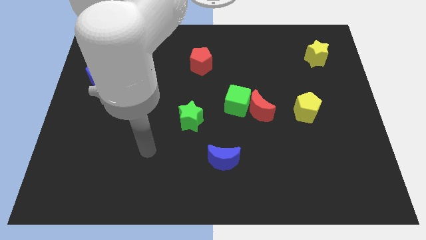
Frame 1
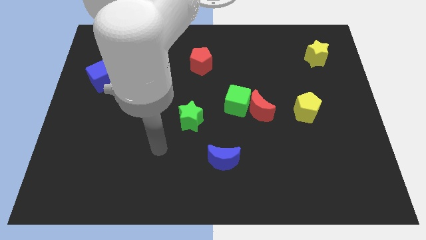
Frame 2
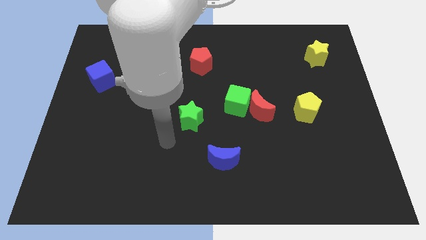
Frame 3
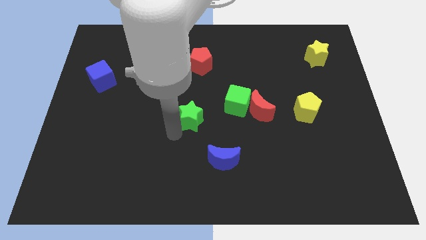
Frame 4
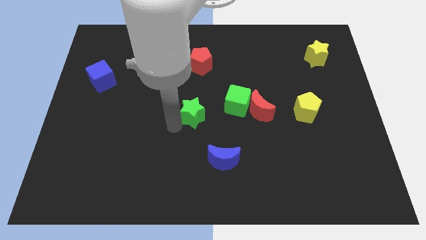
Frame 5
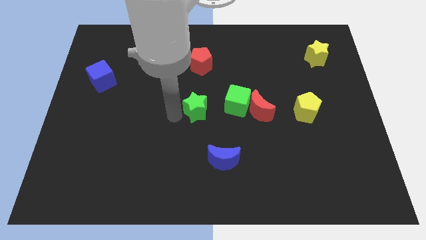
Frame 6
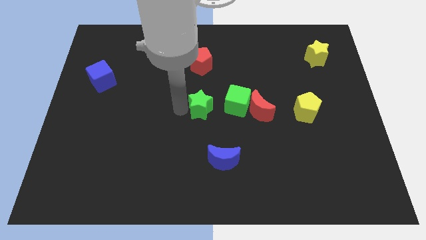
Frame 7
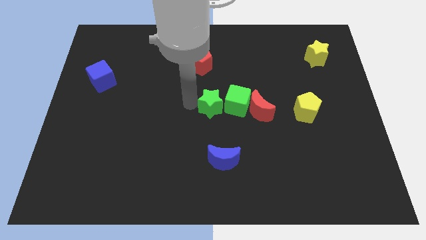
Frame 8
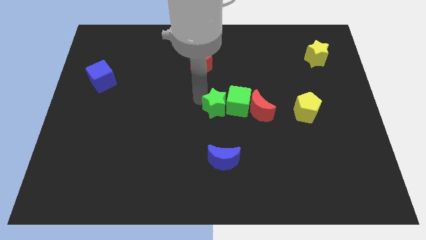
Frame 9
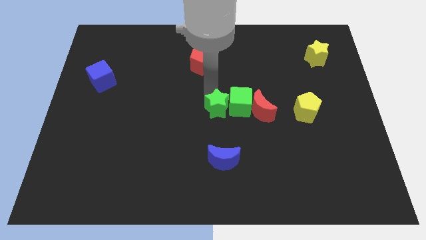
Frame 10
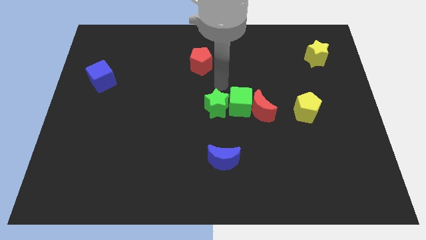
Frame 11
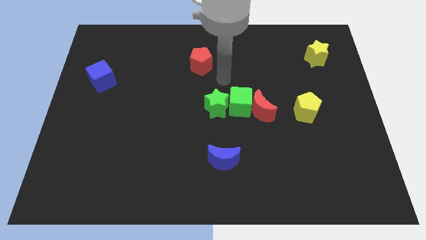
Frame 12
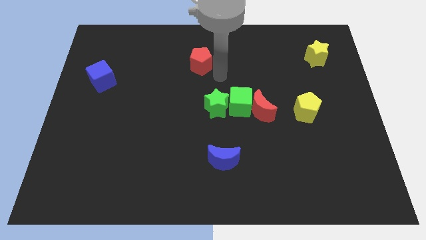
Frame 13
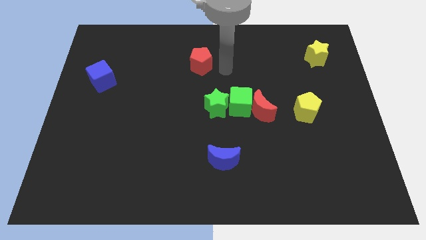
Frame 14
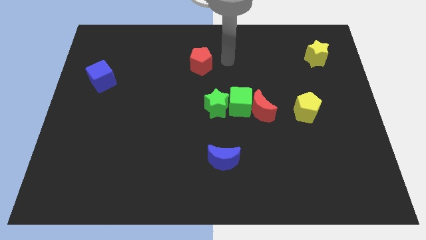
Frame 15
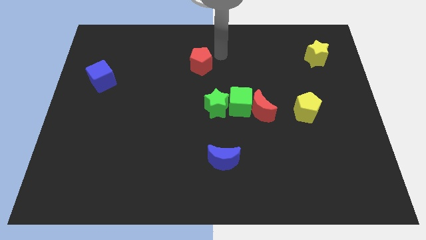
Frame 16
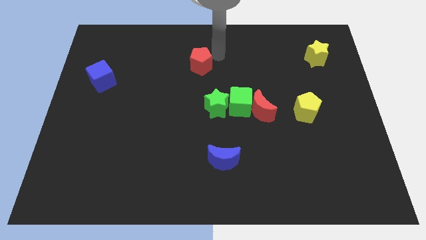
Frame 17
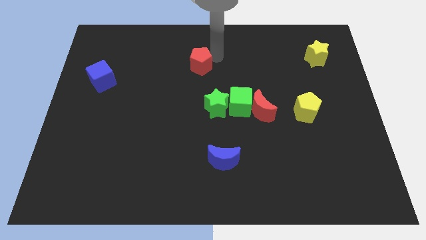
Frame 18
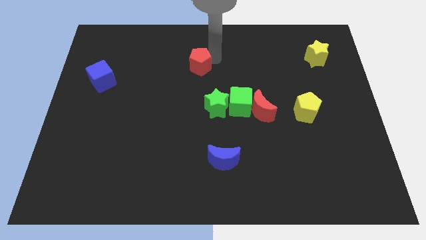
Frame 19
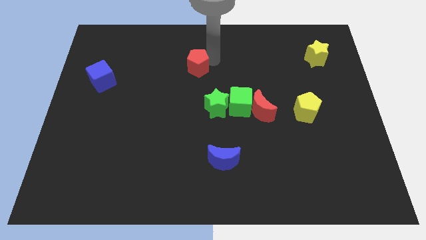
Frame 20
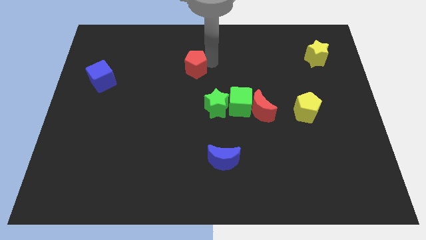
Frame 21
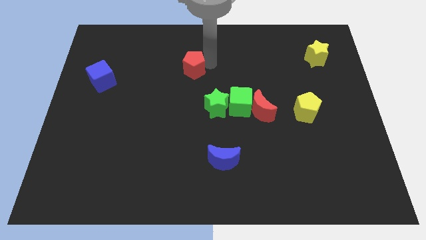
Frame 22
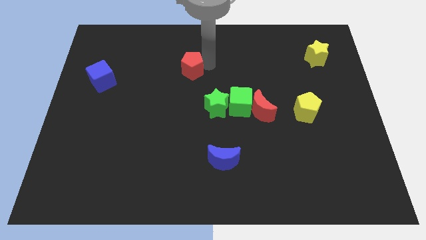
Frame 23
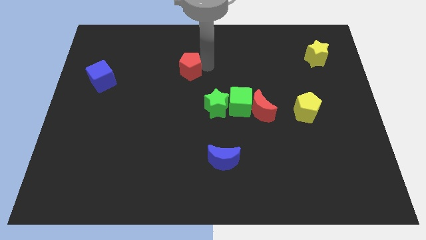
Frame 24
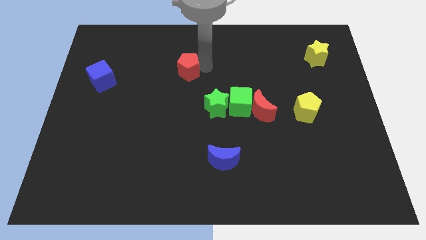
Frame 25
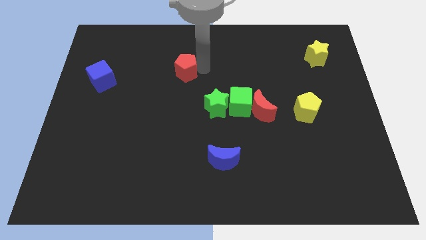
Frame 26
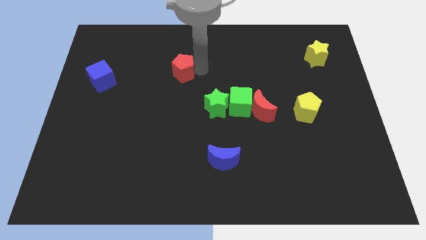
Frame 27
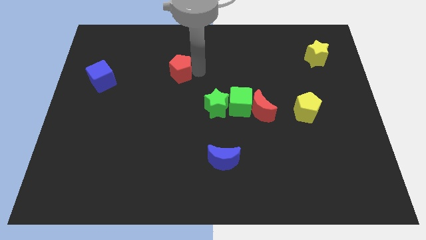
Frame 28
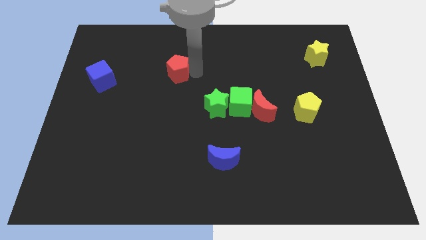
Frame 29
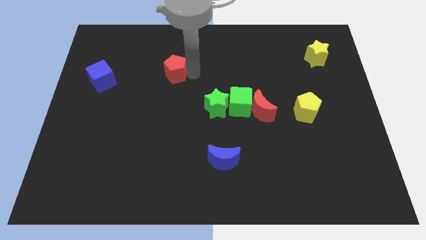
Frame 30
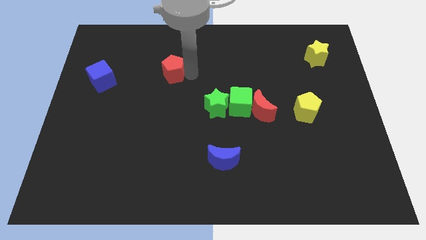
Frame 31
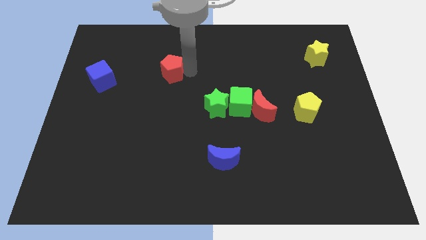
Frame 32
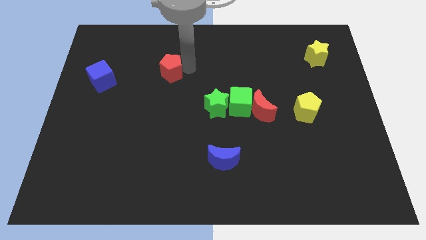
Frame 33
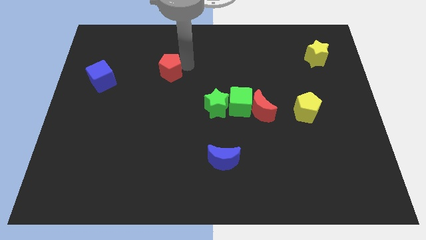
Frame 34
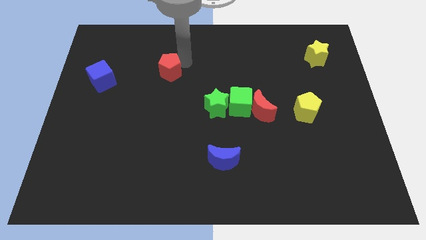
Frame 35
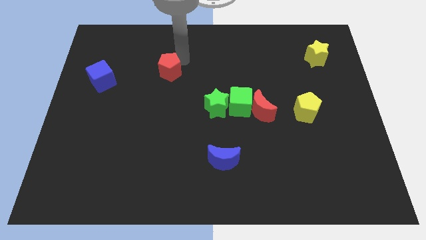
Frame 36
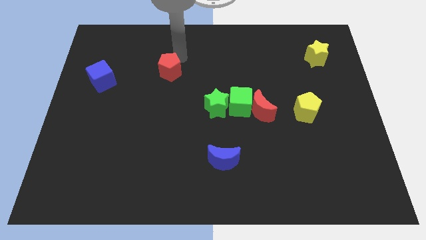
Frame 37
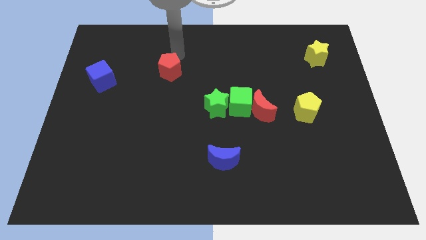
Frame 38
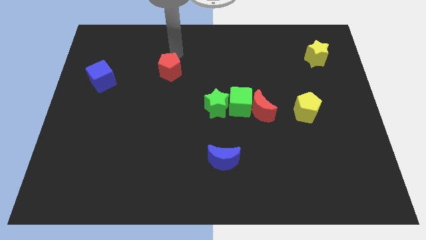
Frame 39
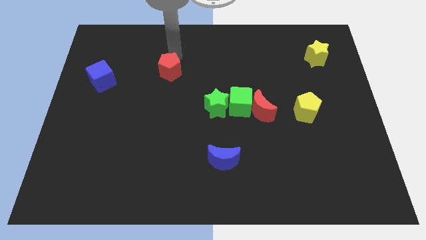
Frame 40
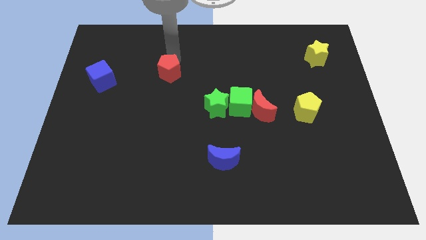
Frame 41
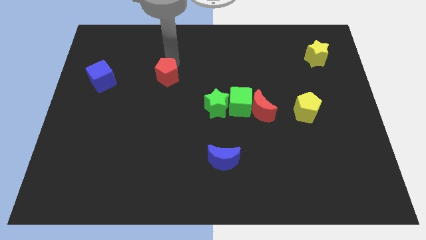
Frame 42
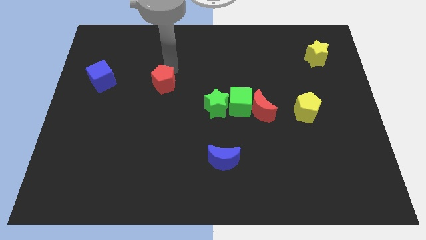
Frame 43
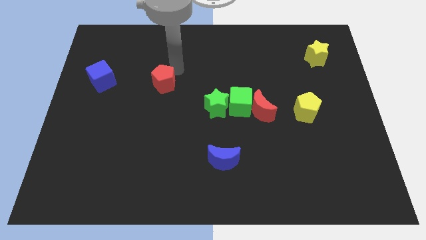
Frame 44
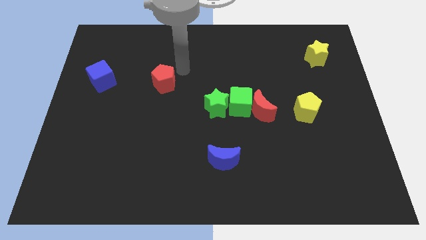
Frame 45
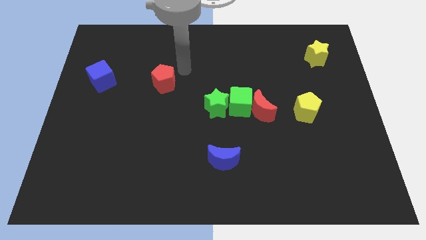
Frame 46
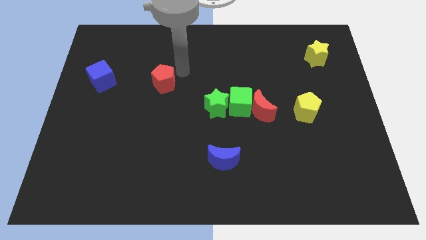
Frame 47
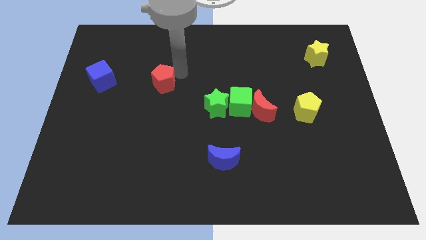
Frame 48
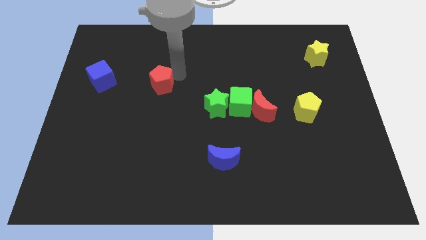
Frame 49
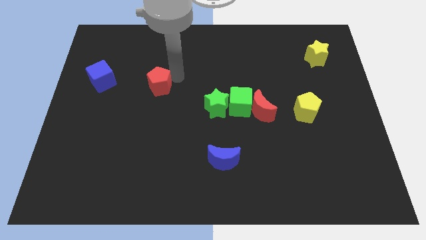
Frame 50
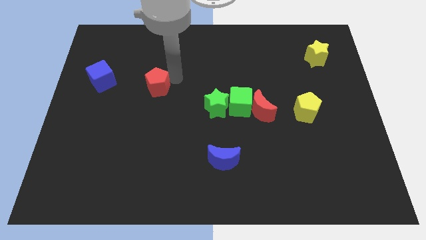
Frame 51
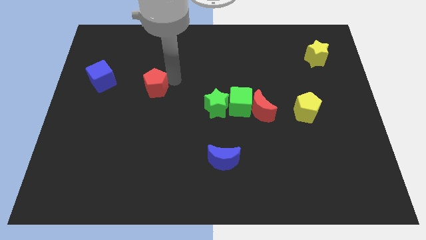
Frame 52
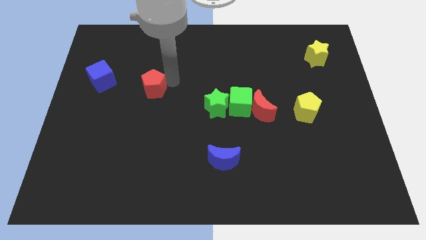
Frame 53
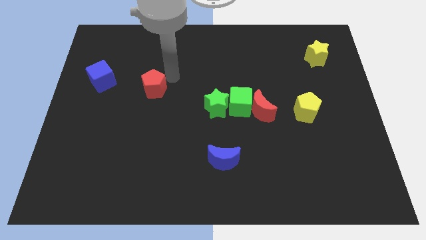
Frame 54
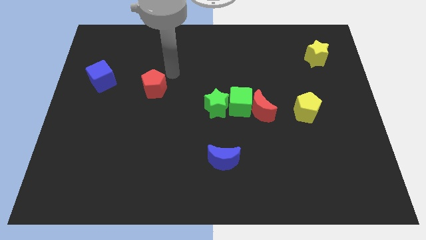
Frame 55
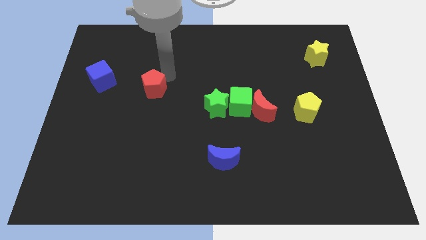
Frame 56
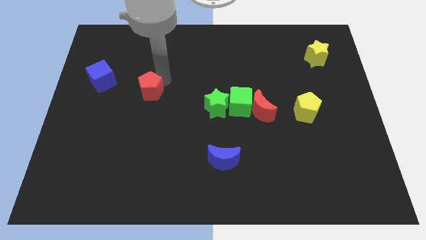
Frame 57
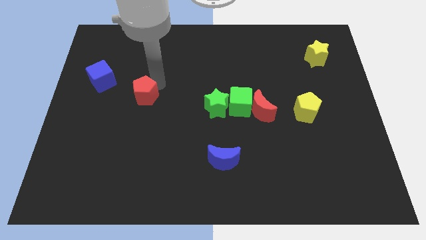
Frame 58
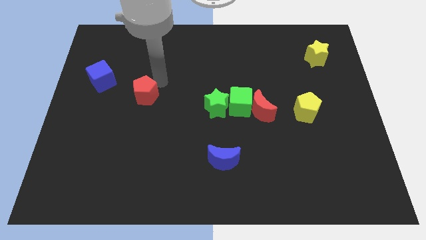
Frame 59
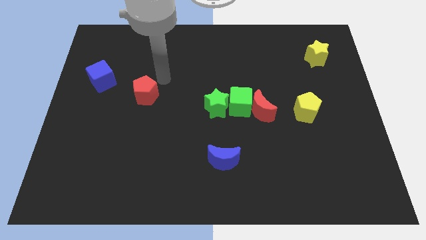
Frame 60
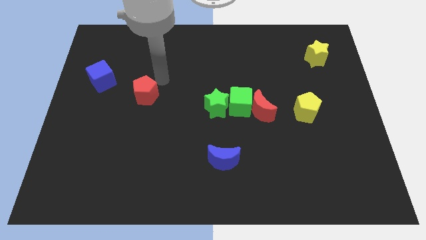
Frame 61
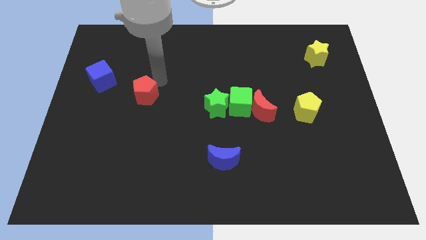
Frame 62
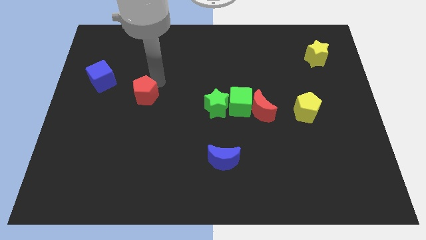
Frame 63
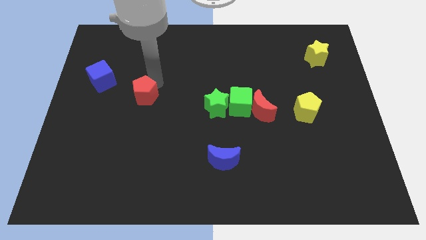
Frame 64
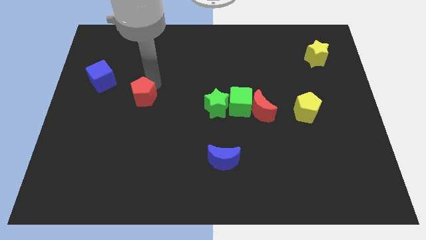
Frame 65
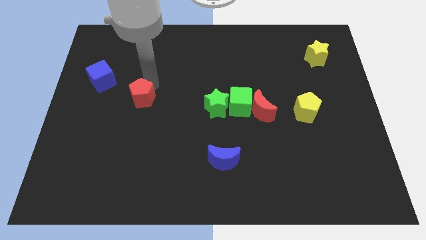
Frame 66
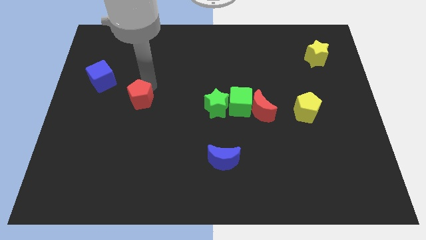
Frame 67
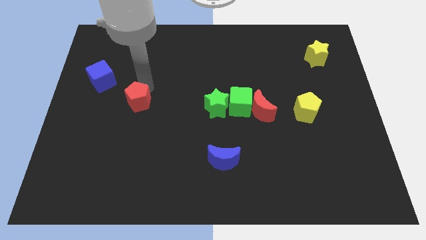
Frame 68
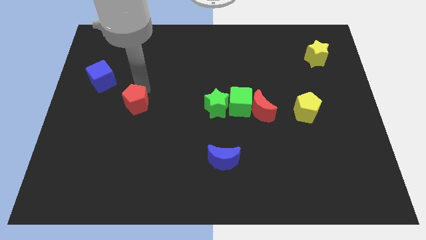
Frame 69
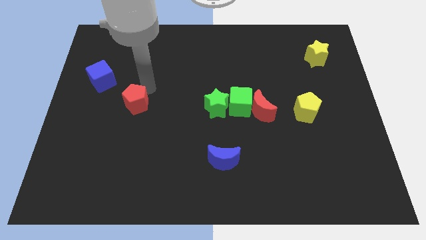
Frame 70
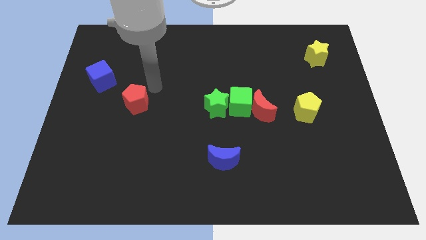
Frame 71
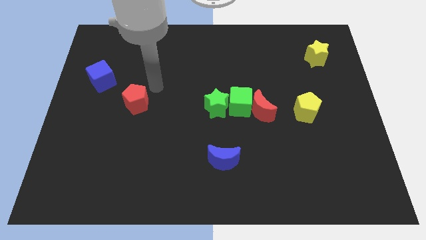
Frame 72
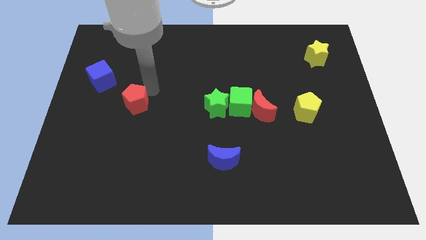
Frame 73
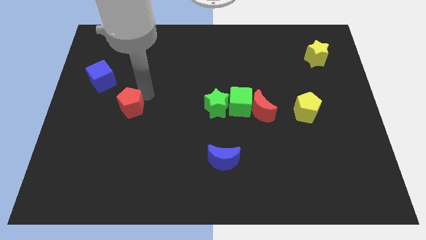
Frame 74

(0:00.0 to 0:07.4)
slide the red pentagon down and then to the left

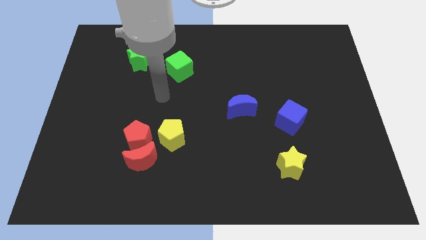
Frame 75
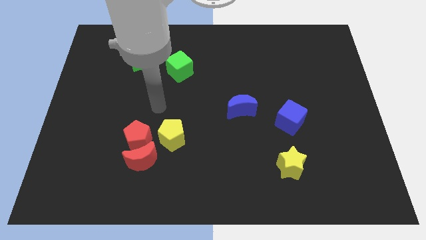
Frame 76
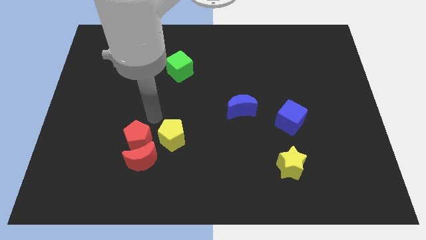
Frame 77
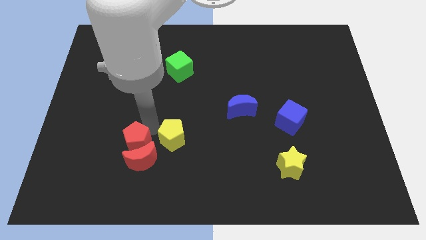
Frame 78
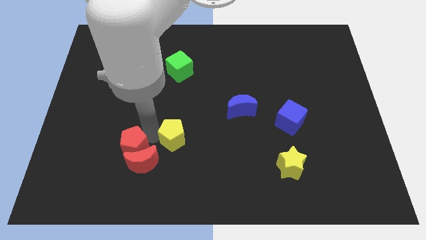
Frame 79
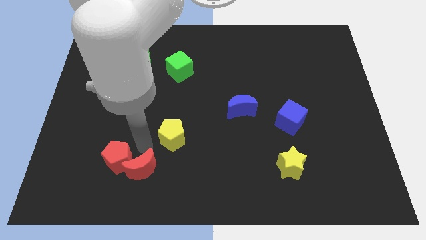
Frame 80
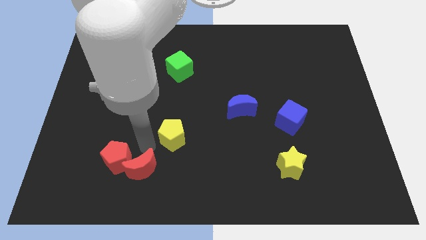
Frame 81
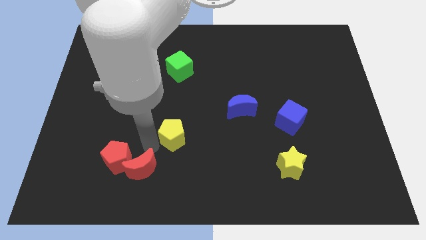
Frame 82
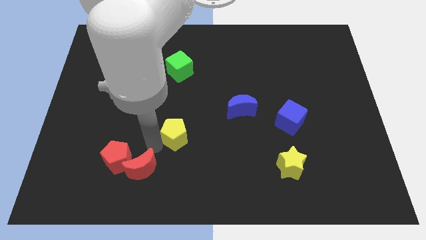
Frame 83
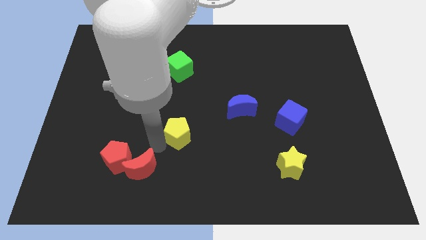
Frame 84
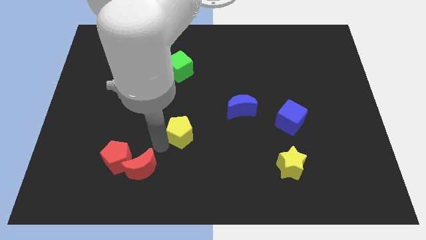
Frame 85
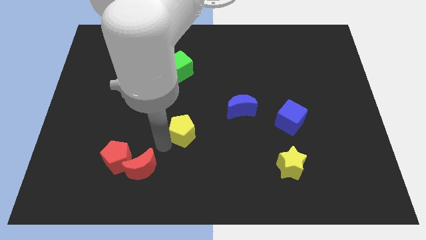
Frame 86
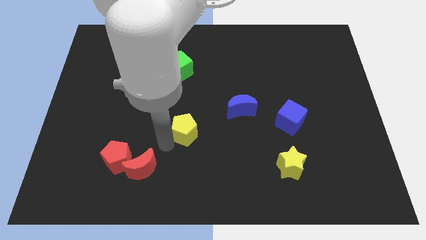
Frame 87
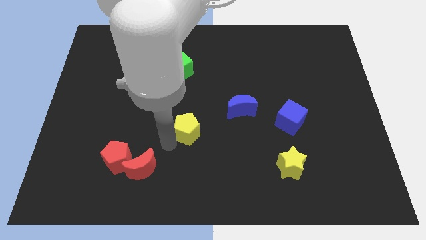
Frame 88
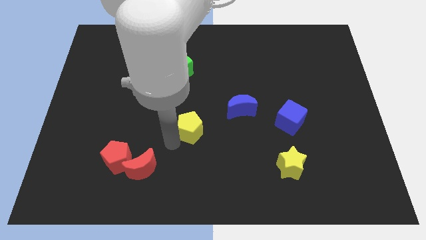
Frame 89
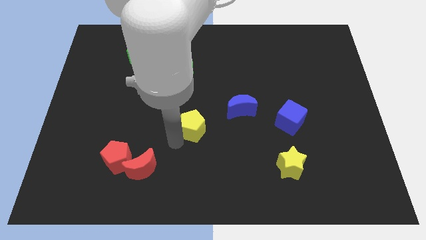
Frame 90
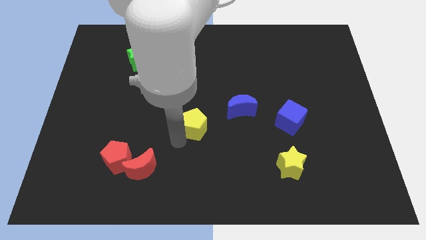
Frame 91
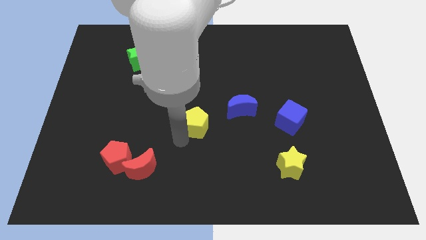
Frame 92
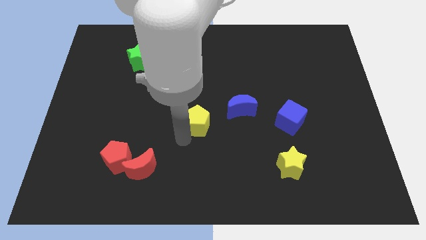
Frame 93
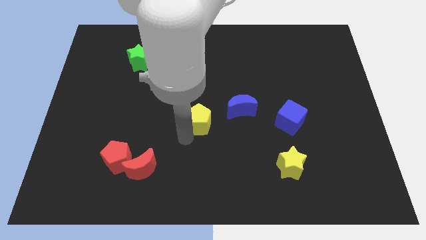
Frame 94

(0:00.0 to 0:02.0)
slightly slide the yellow pentagon upwards and then to the right
